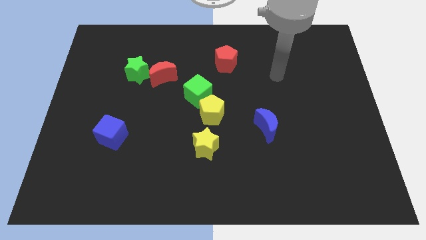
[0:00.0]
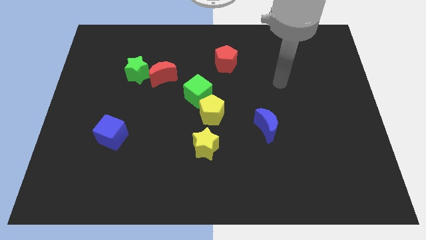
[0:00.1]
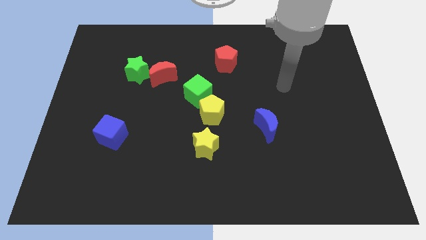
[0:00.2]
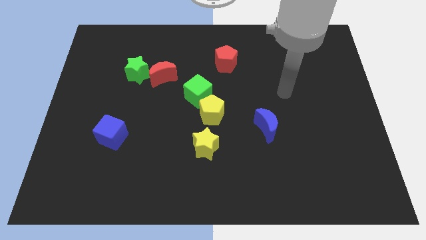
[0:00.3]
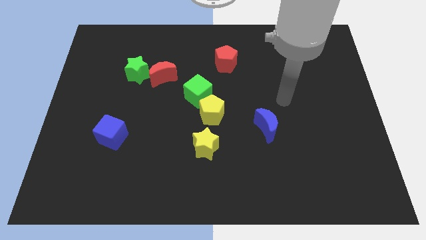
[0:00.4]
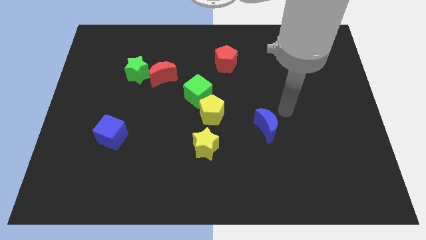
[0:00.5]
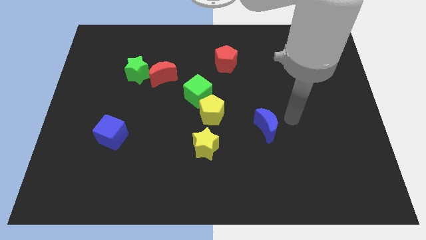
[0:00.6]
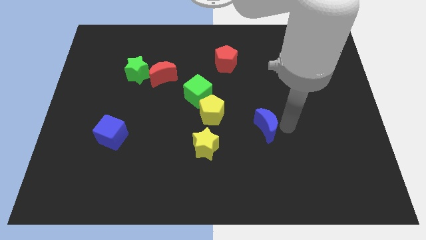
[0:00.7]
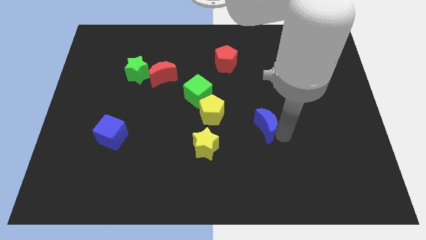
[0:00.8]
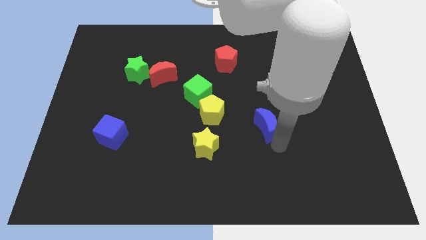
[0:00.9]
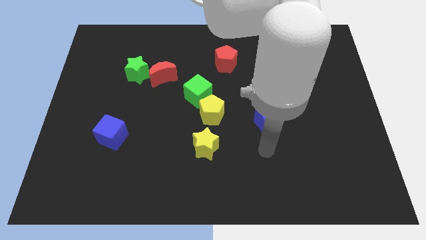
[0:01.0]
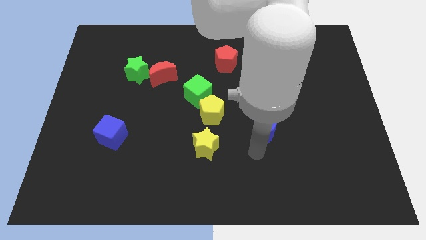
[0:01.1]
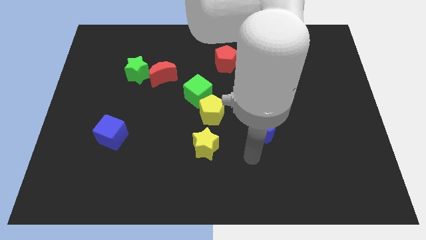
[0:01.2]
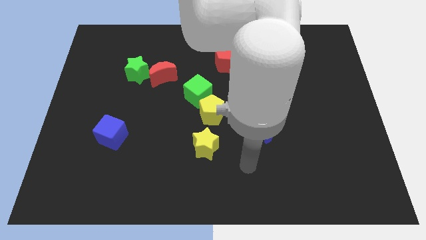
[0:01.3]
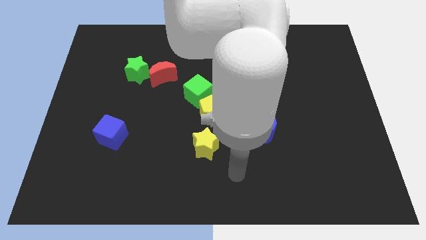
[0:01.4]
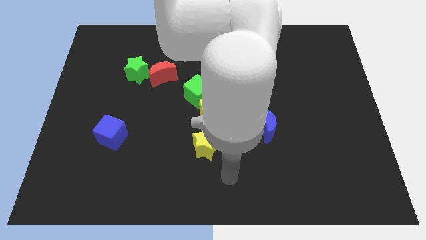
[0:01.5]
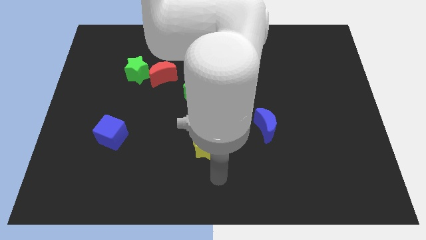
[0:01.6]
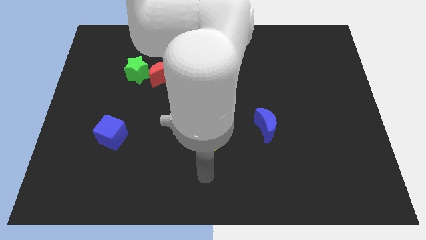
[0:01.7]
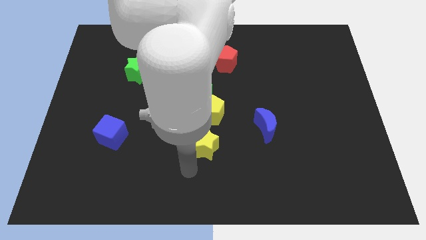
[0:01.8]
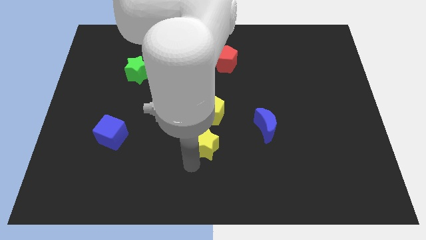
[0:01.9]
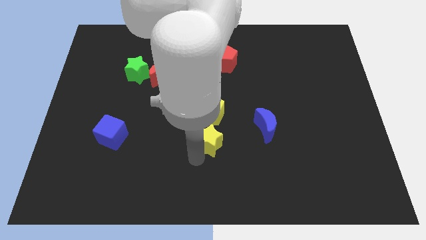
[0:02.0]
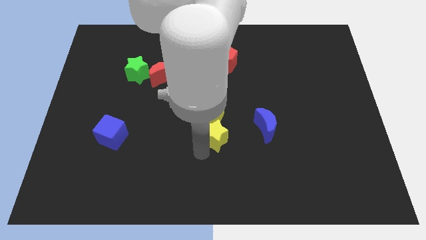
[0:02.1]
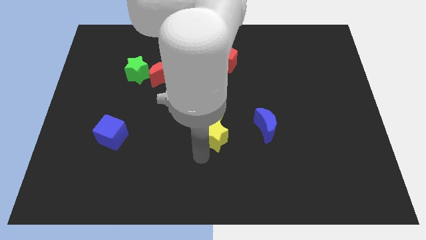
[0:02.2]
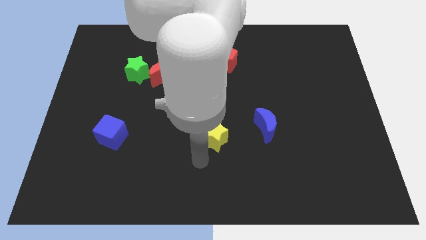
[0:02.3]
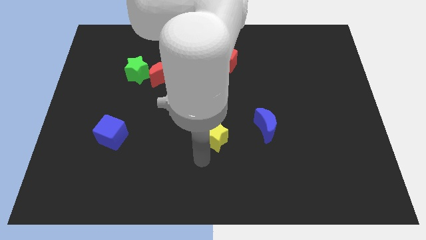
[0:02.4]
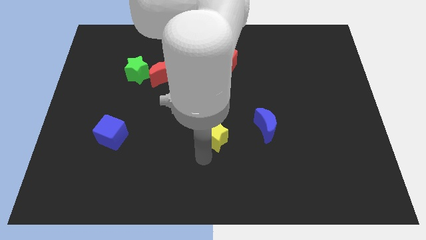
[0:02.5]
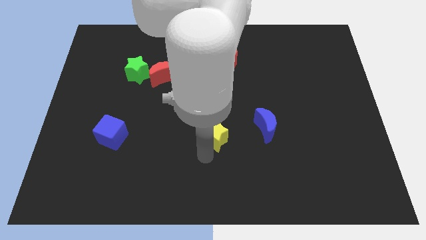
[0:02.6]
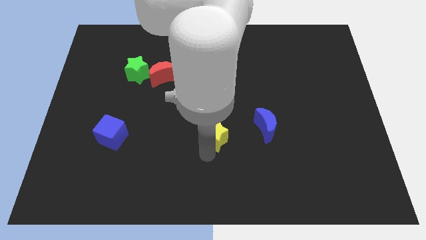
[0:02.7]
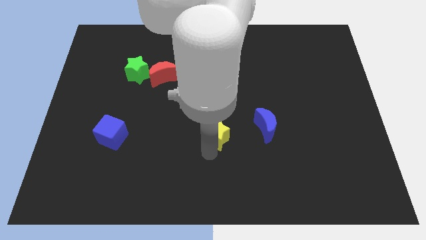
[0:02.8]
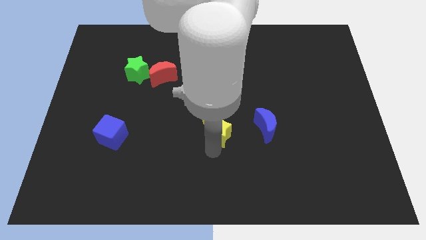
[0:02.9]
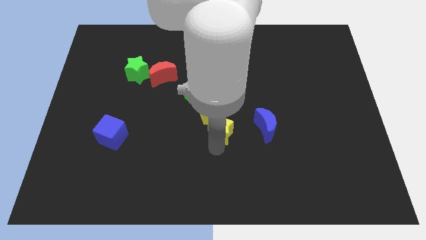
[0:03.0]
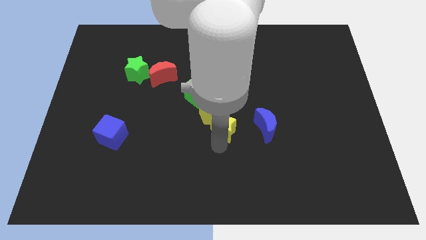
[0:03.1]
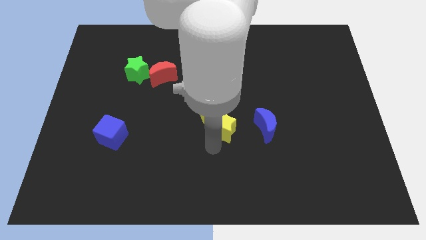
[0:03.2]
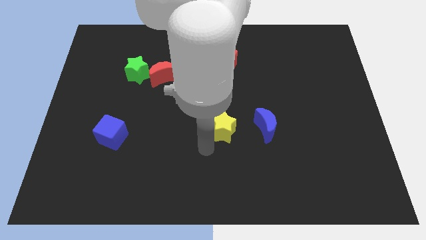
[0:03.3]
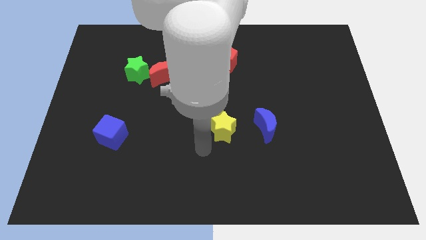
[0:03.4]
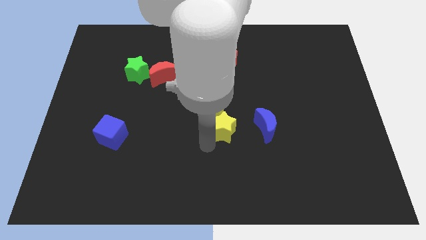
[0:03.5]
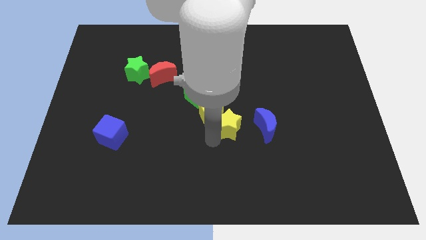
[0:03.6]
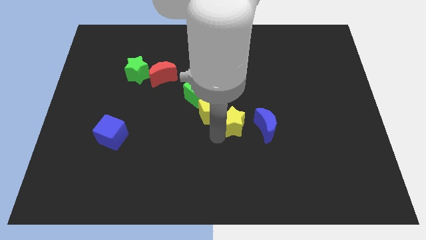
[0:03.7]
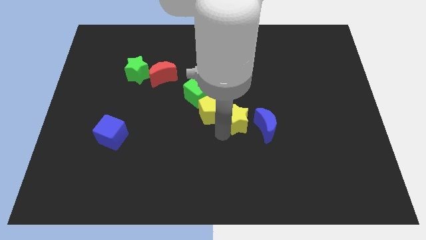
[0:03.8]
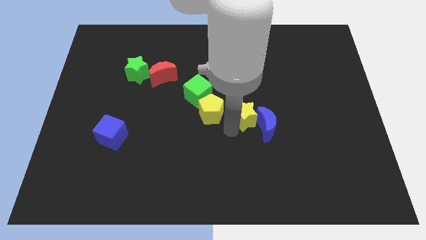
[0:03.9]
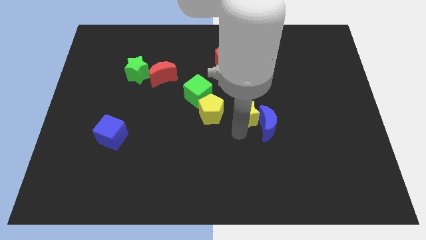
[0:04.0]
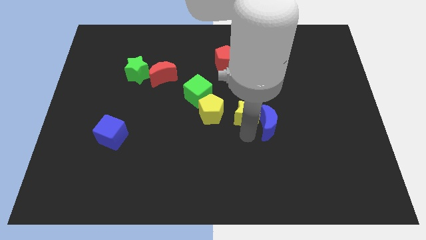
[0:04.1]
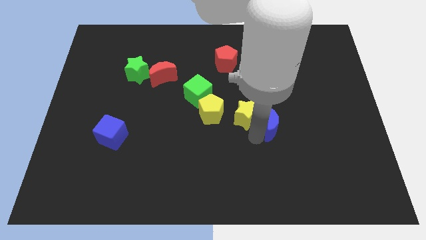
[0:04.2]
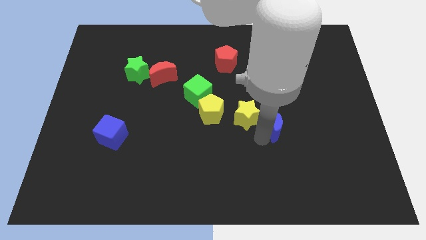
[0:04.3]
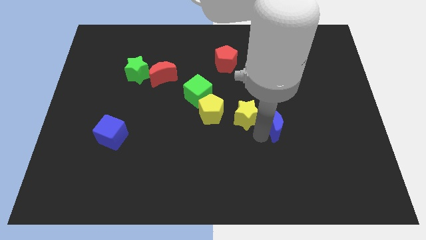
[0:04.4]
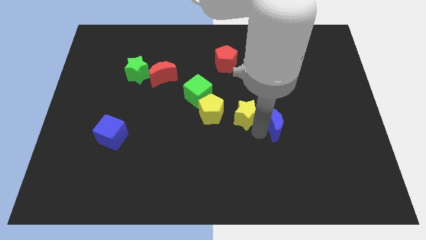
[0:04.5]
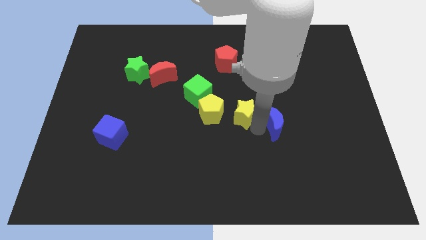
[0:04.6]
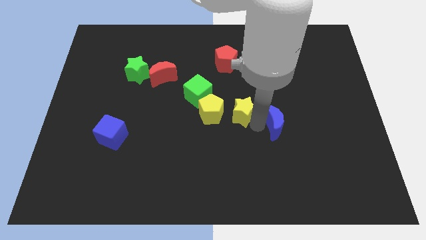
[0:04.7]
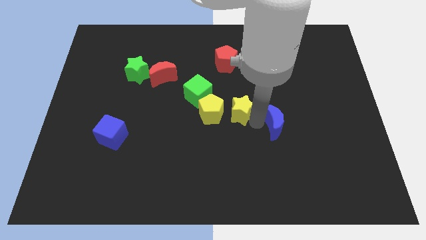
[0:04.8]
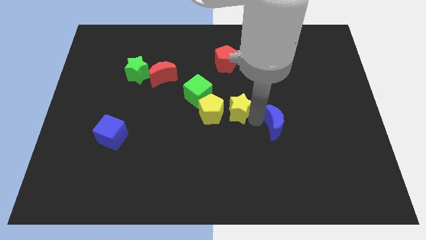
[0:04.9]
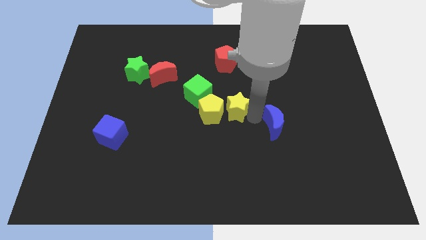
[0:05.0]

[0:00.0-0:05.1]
move the yellow star to the bottom side of the red pentagon

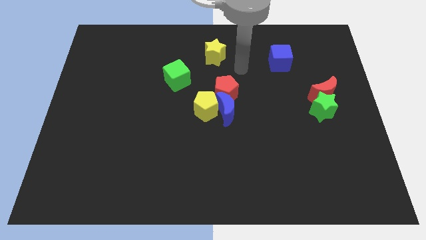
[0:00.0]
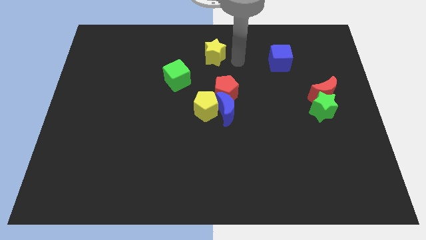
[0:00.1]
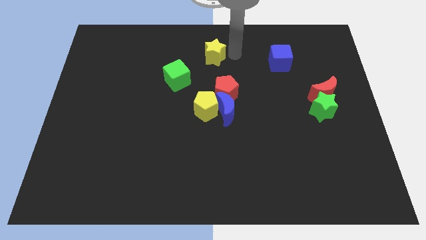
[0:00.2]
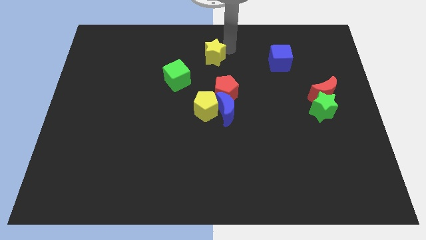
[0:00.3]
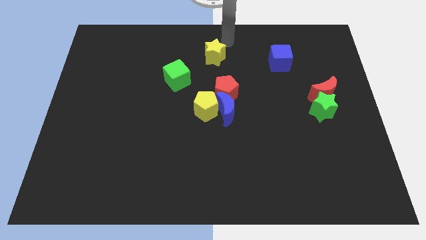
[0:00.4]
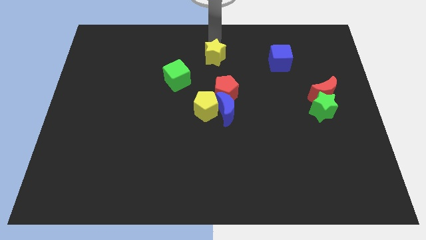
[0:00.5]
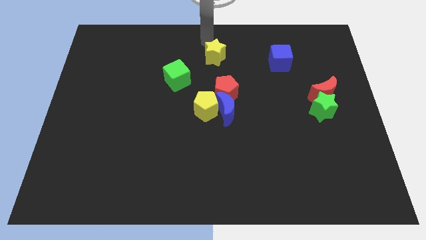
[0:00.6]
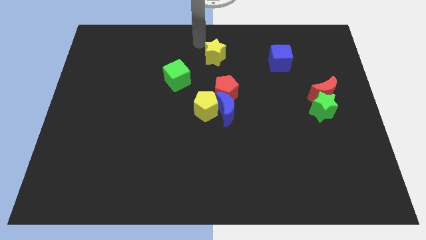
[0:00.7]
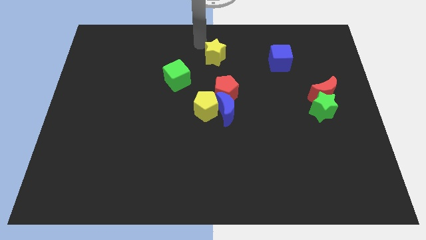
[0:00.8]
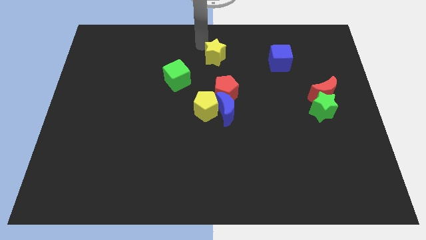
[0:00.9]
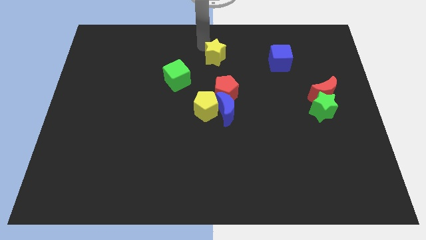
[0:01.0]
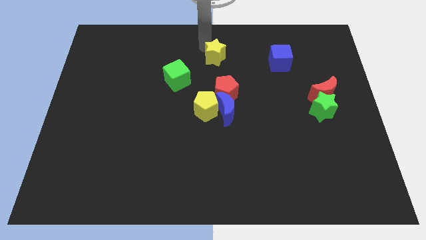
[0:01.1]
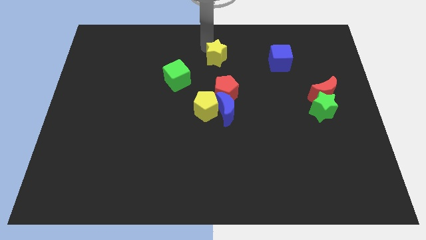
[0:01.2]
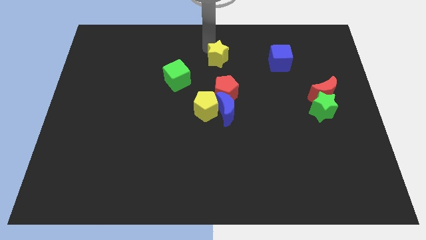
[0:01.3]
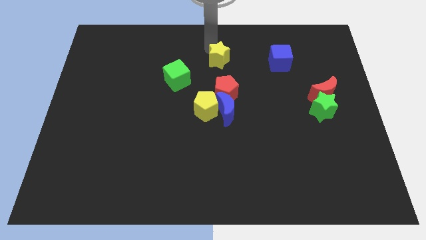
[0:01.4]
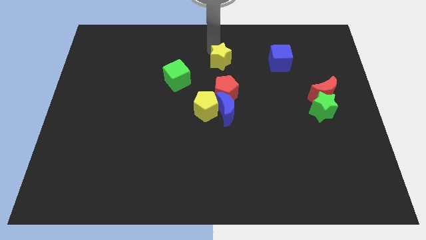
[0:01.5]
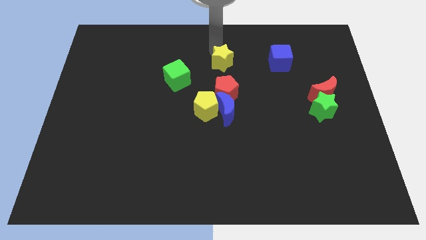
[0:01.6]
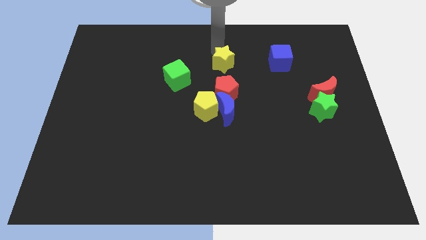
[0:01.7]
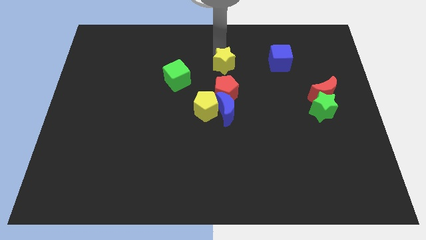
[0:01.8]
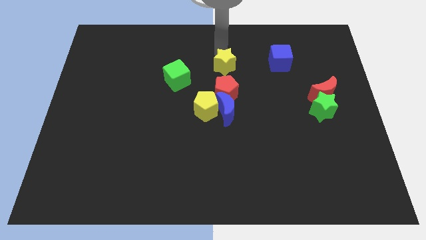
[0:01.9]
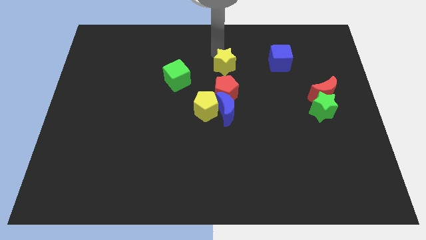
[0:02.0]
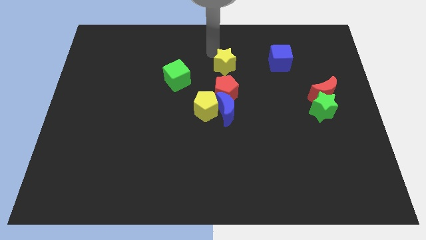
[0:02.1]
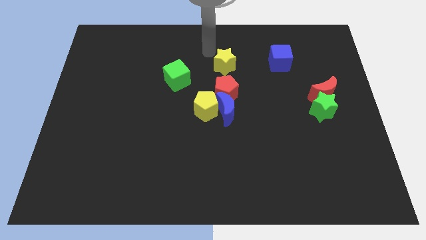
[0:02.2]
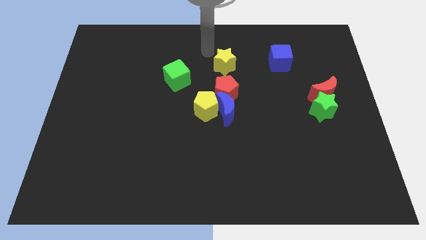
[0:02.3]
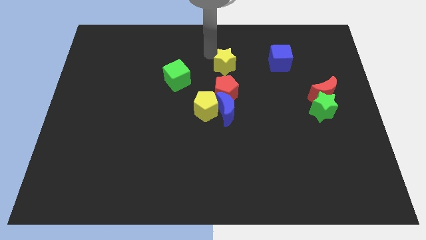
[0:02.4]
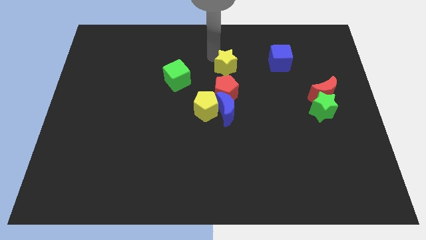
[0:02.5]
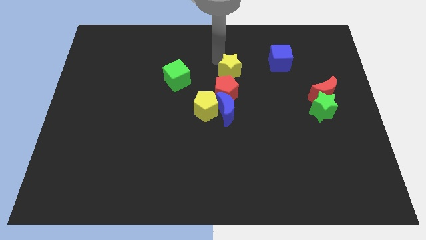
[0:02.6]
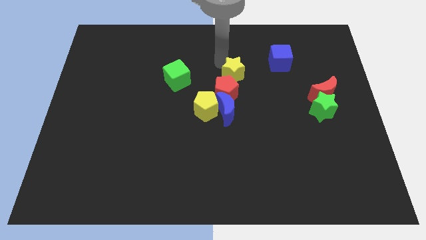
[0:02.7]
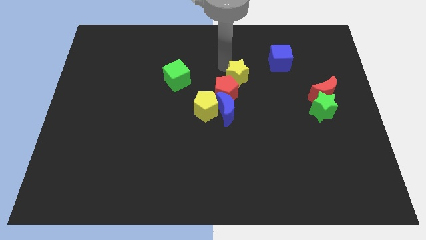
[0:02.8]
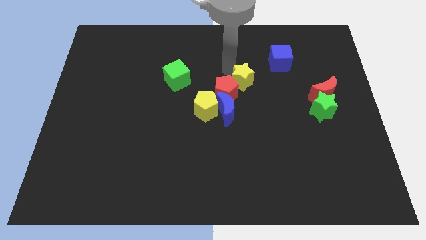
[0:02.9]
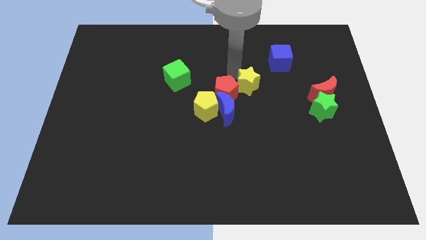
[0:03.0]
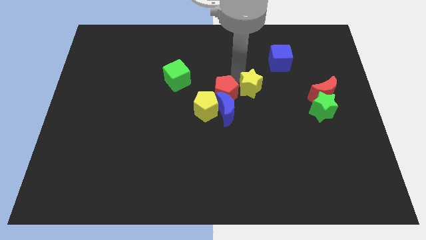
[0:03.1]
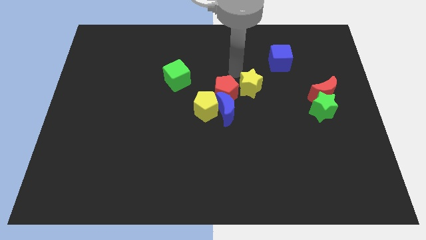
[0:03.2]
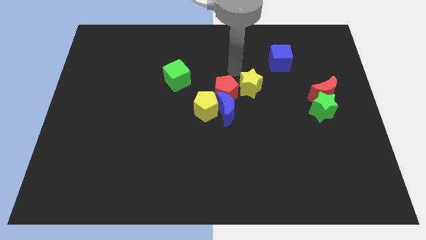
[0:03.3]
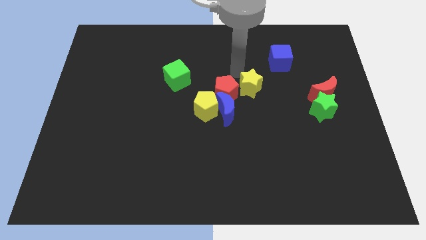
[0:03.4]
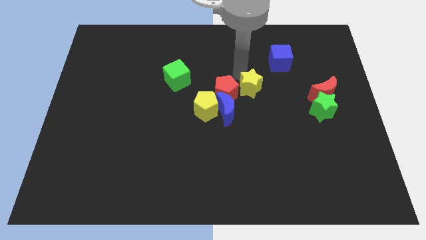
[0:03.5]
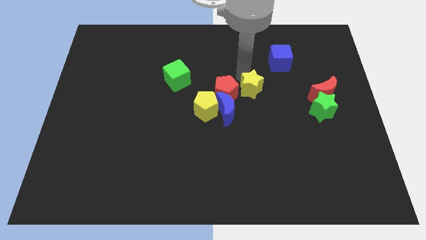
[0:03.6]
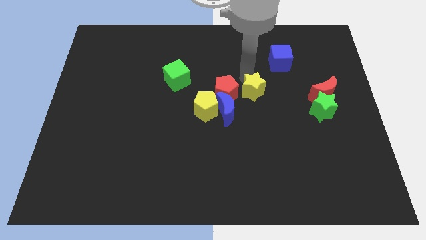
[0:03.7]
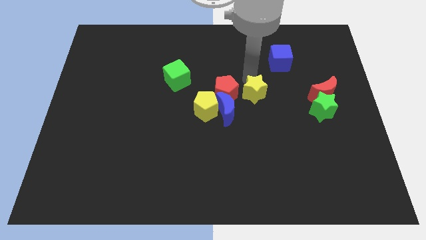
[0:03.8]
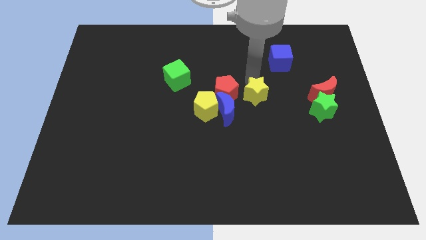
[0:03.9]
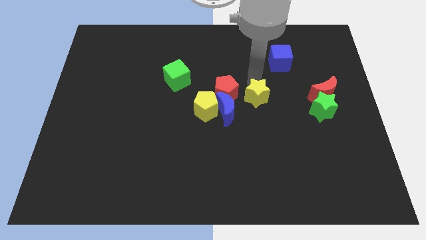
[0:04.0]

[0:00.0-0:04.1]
push the yellow star to the right side of the blue moon
